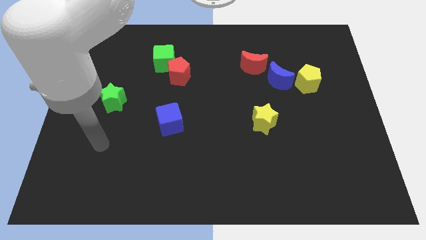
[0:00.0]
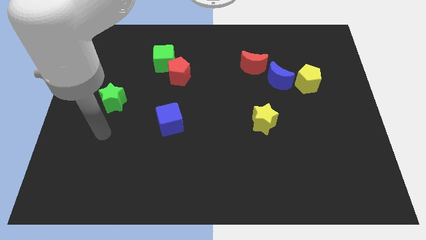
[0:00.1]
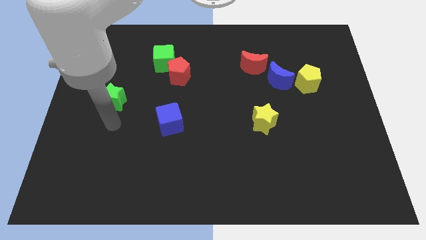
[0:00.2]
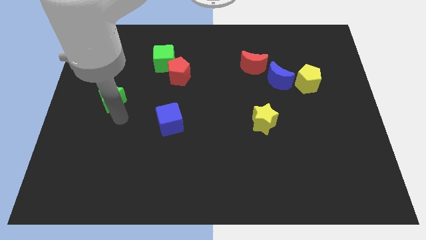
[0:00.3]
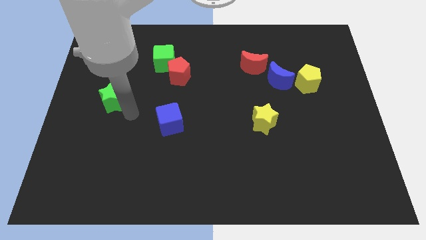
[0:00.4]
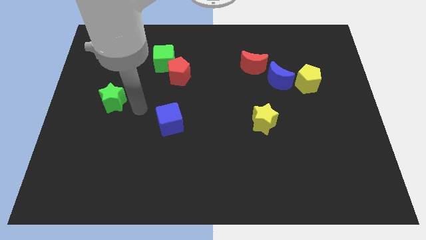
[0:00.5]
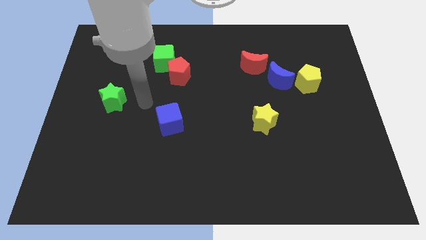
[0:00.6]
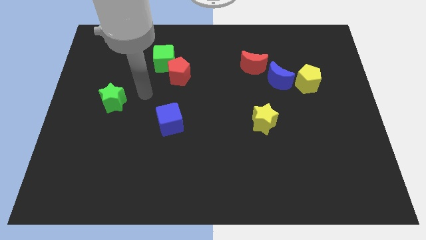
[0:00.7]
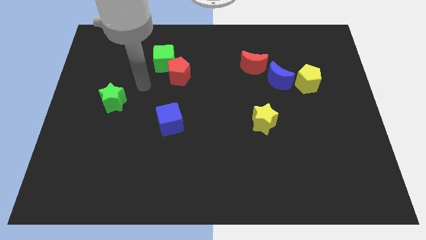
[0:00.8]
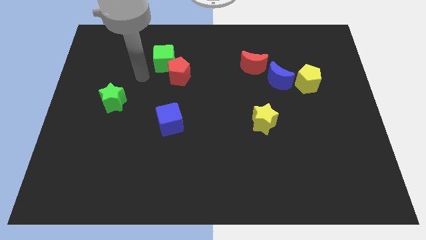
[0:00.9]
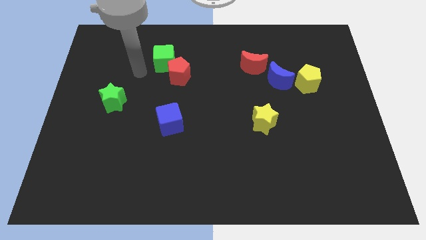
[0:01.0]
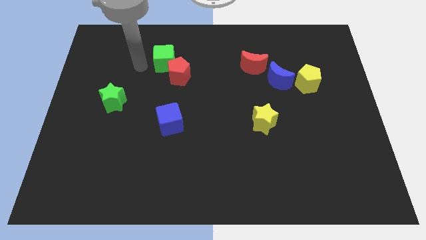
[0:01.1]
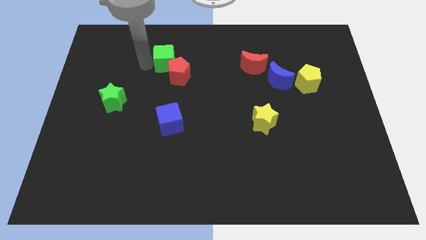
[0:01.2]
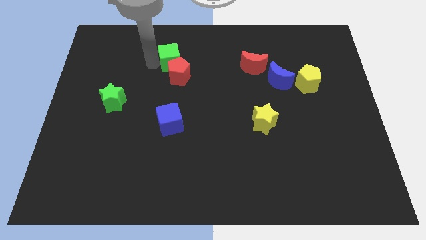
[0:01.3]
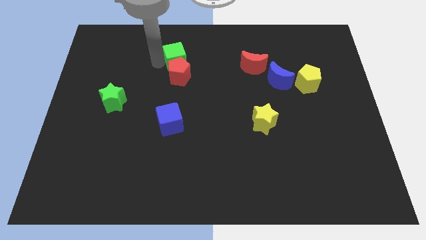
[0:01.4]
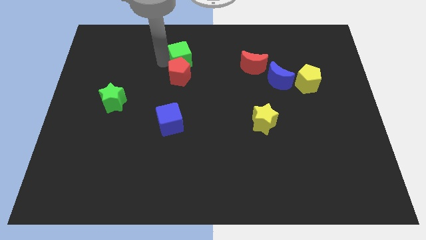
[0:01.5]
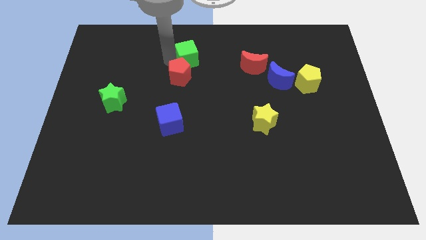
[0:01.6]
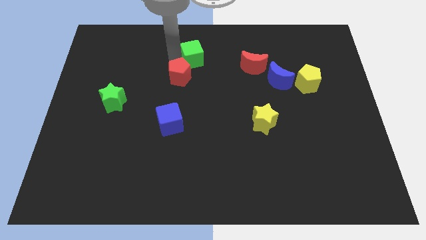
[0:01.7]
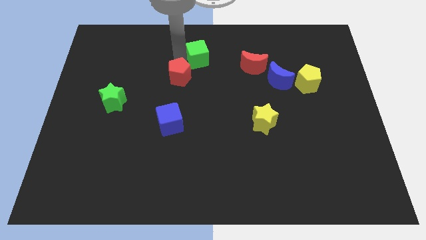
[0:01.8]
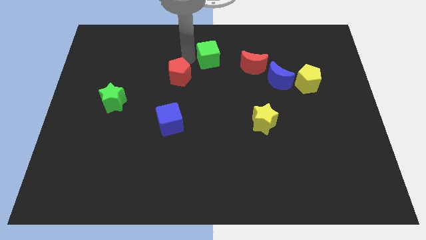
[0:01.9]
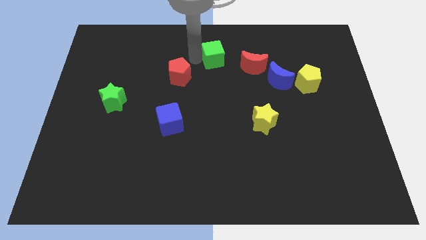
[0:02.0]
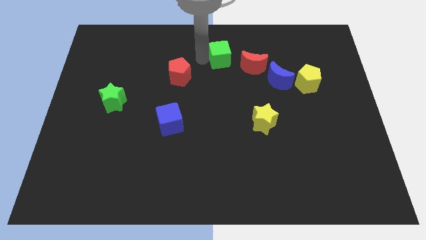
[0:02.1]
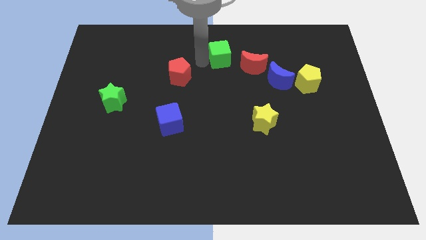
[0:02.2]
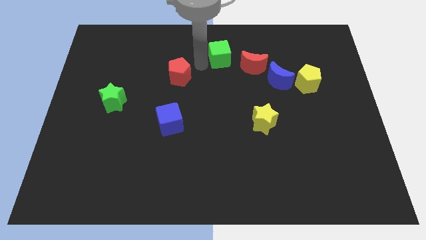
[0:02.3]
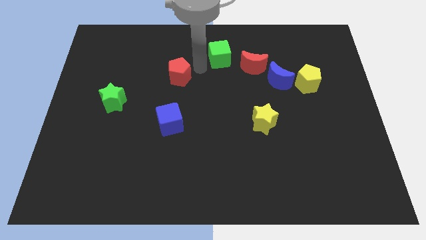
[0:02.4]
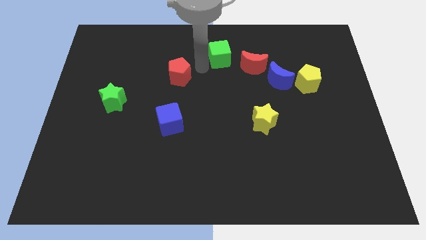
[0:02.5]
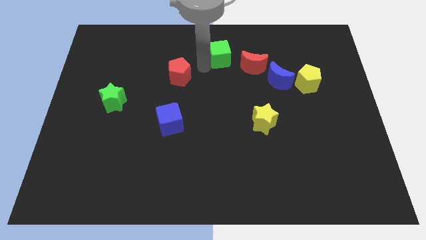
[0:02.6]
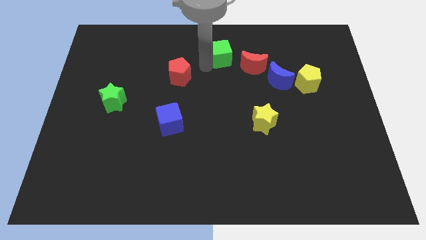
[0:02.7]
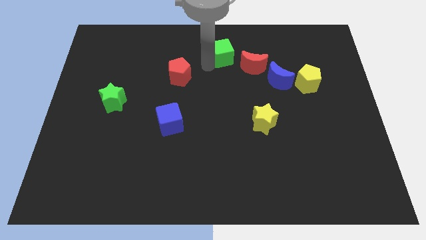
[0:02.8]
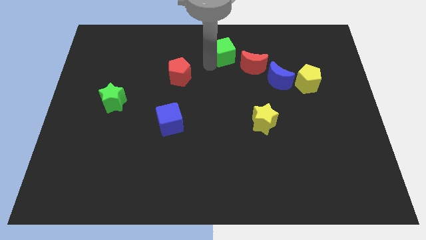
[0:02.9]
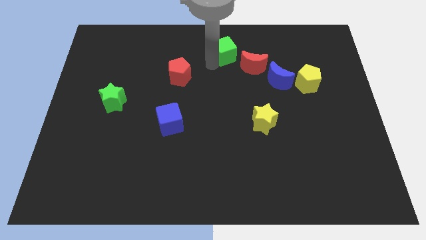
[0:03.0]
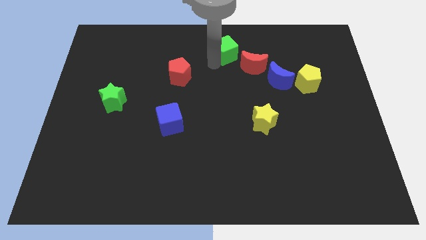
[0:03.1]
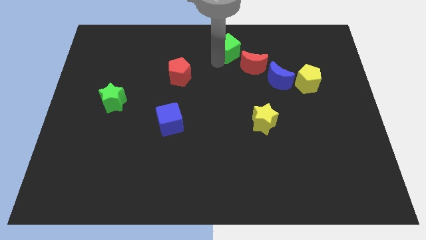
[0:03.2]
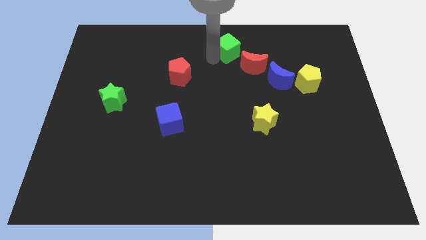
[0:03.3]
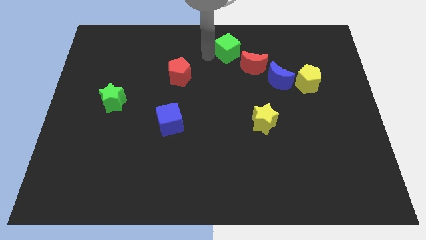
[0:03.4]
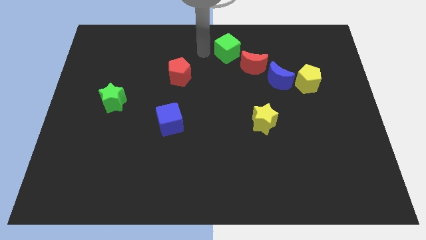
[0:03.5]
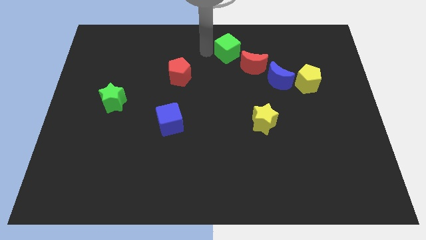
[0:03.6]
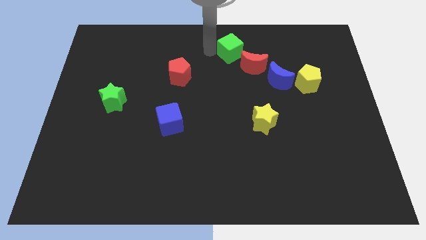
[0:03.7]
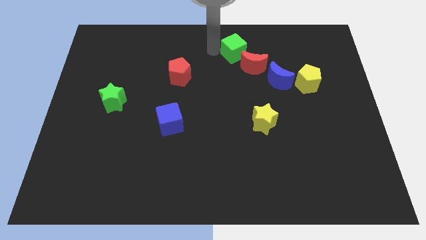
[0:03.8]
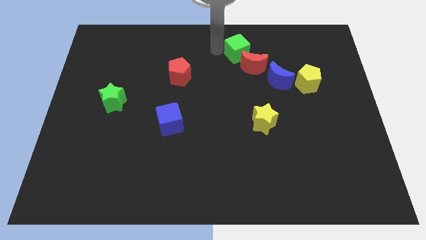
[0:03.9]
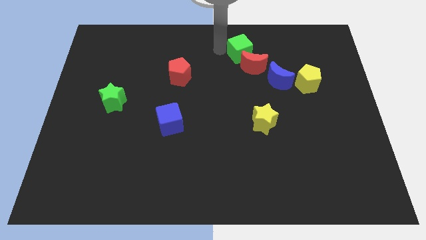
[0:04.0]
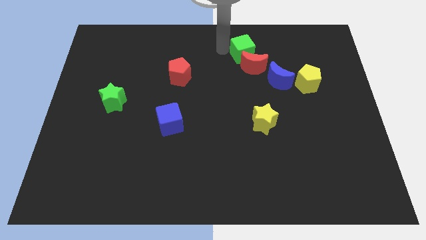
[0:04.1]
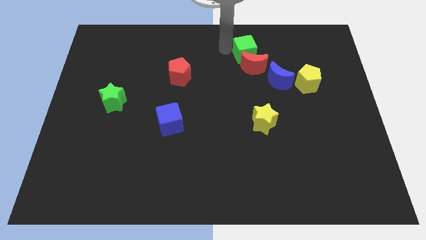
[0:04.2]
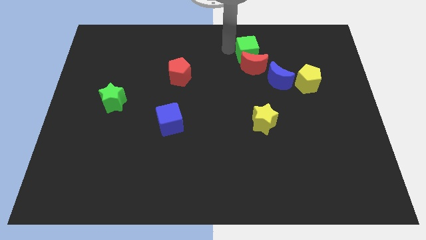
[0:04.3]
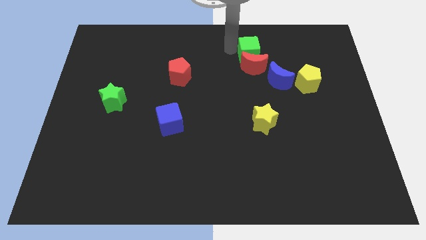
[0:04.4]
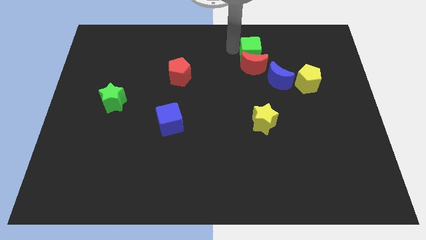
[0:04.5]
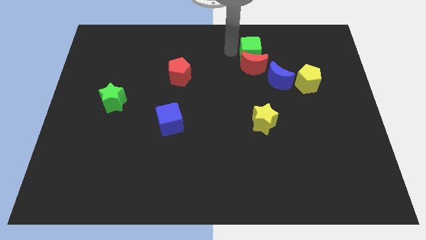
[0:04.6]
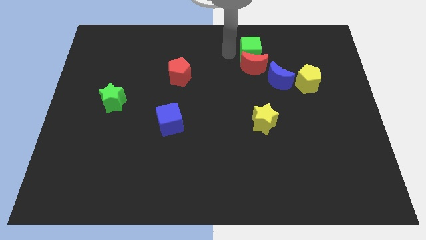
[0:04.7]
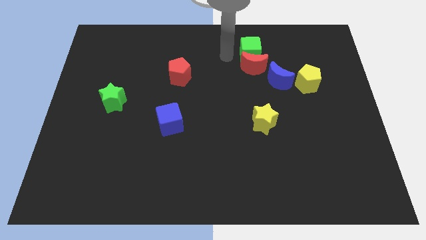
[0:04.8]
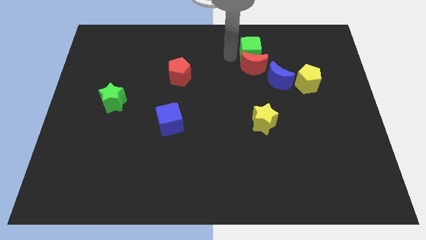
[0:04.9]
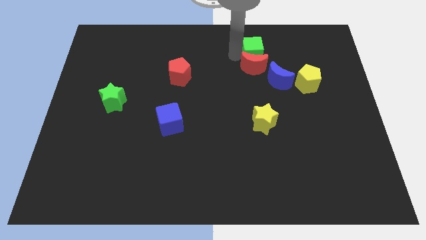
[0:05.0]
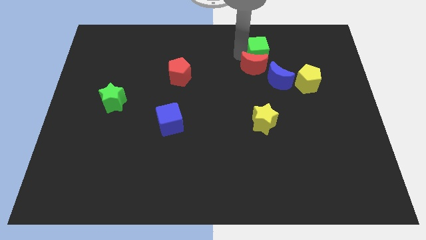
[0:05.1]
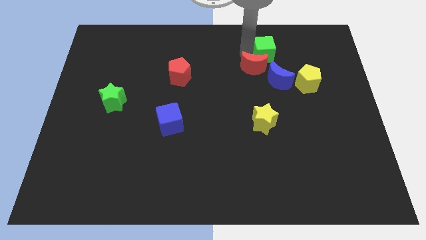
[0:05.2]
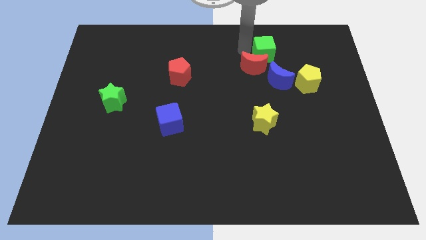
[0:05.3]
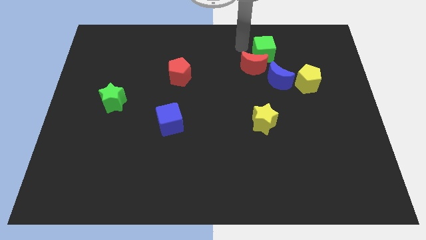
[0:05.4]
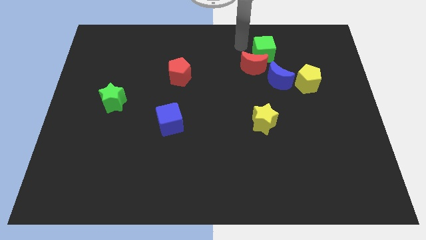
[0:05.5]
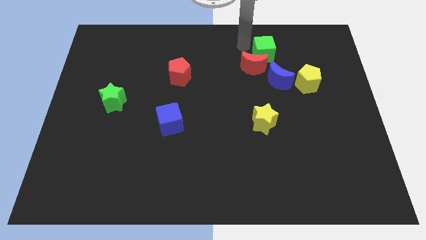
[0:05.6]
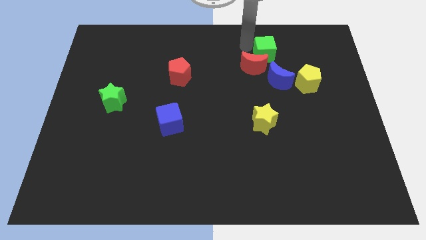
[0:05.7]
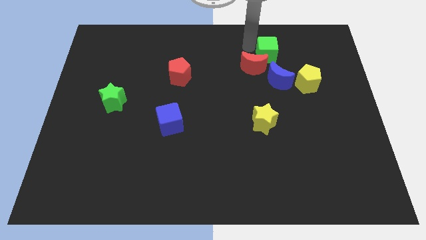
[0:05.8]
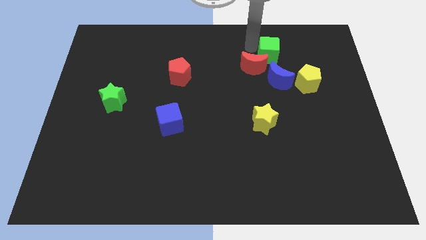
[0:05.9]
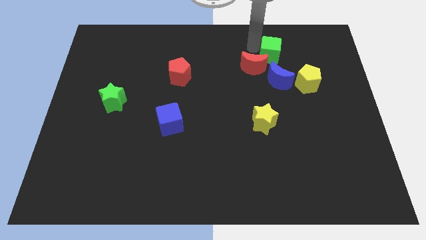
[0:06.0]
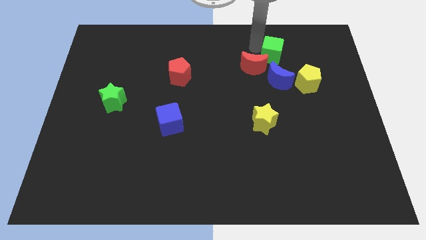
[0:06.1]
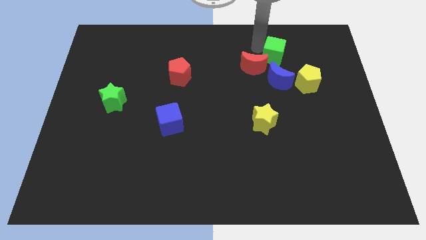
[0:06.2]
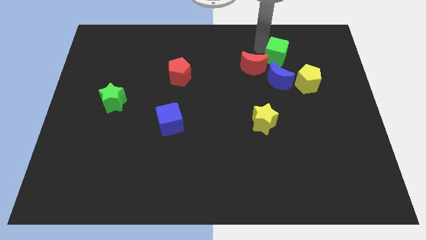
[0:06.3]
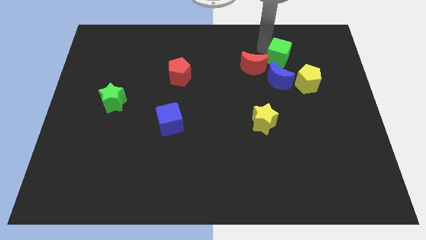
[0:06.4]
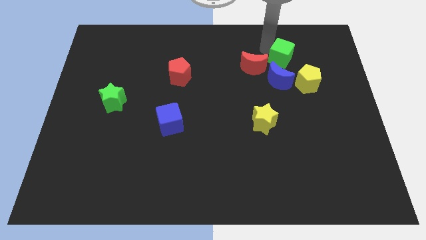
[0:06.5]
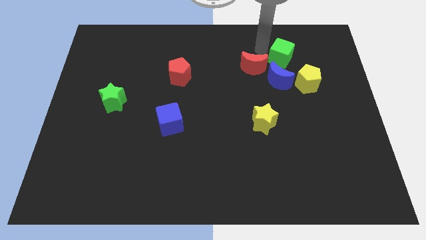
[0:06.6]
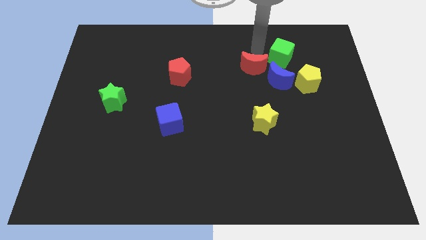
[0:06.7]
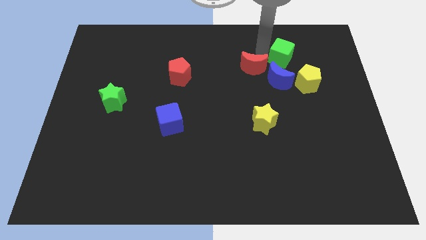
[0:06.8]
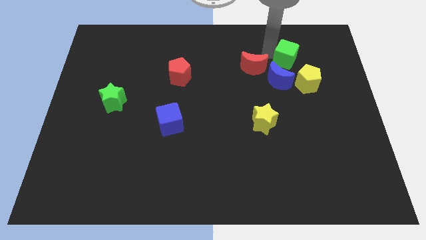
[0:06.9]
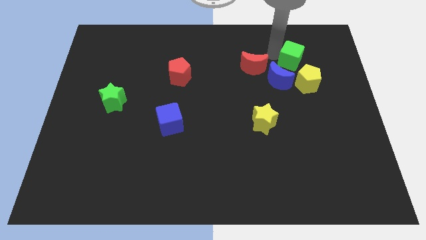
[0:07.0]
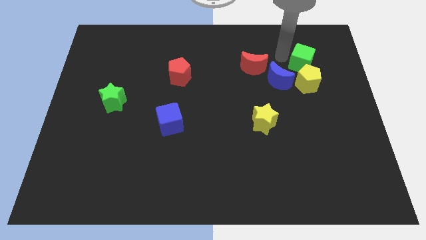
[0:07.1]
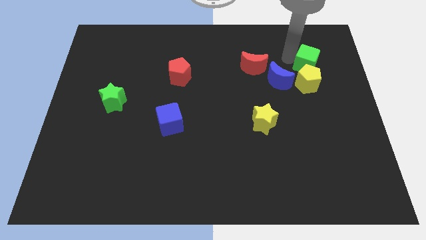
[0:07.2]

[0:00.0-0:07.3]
put the green cube to the top right of the yellow pentagon

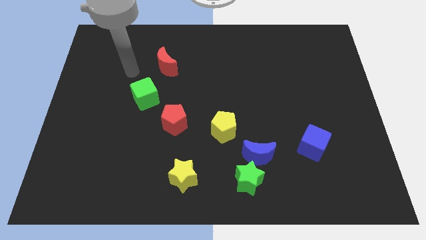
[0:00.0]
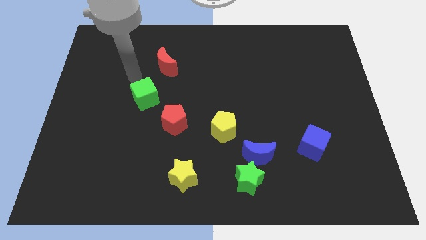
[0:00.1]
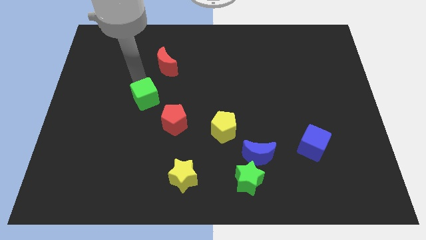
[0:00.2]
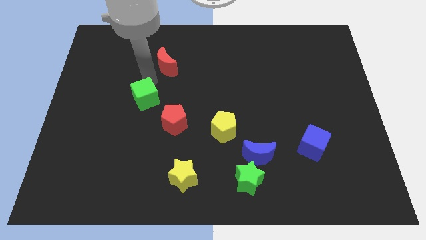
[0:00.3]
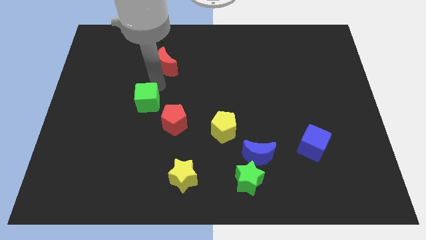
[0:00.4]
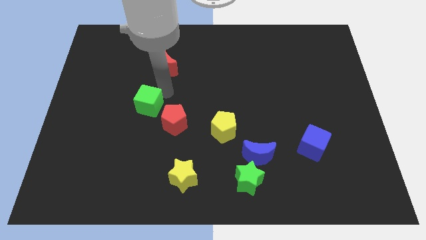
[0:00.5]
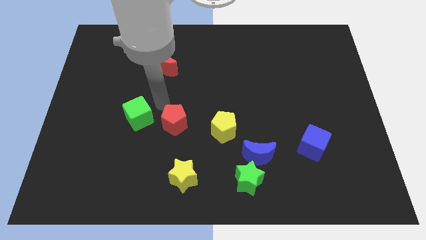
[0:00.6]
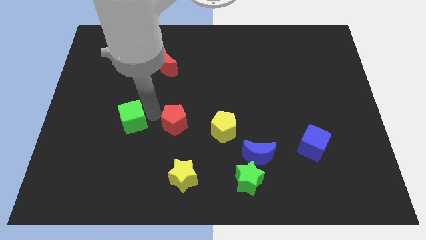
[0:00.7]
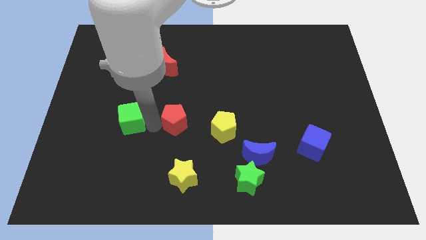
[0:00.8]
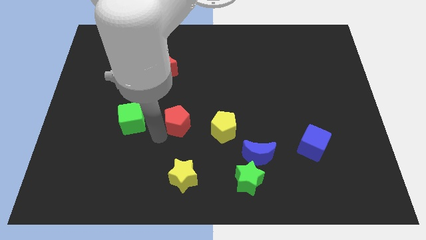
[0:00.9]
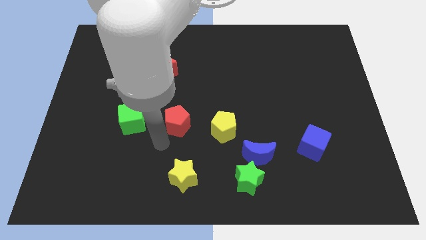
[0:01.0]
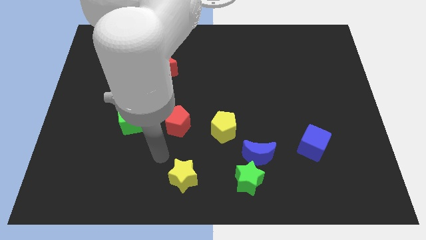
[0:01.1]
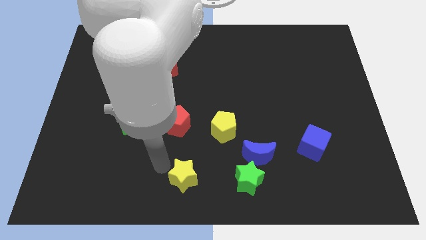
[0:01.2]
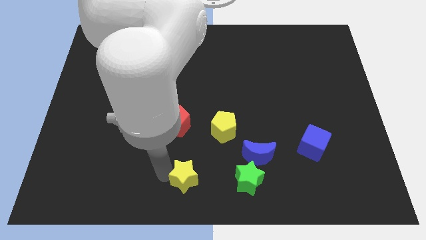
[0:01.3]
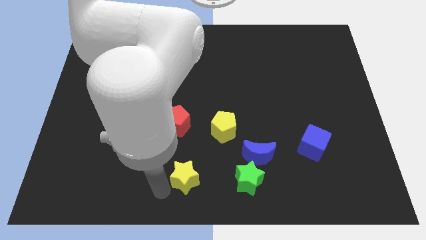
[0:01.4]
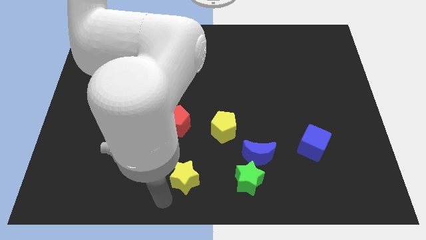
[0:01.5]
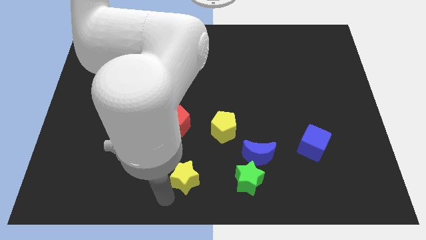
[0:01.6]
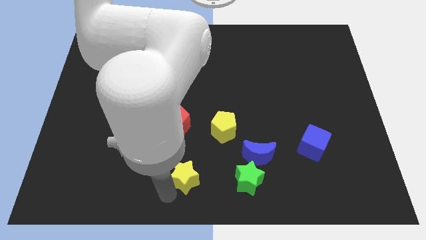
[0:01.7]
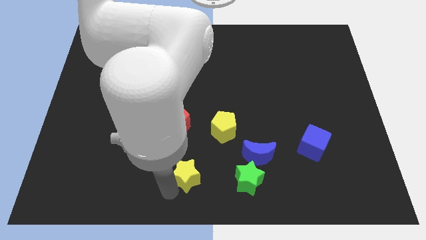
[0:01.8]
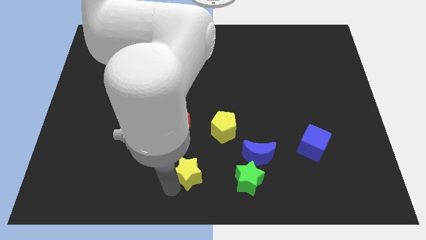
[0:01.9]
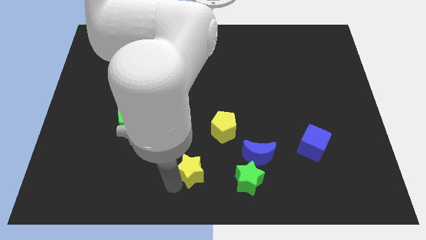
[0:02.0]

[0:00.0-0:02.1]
put the yellow star just left of the blue moon
